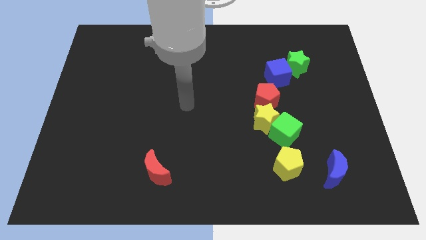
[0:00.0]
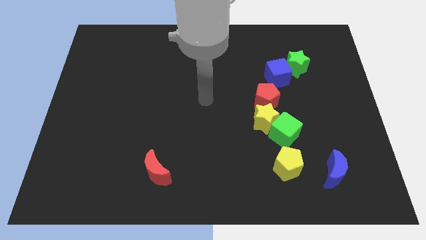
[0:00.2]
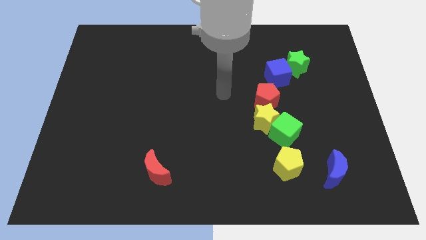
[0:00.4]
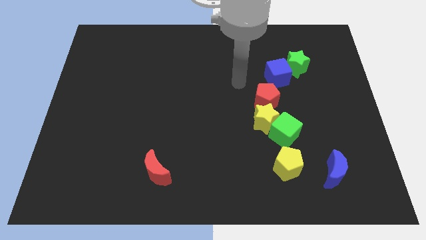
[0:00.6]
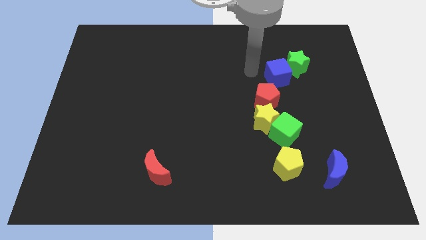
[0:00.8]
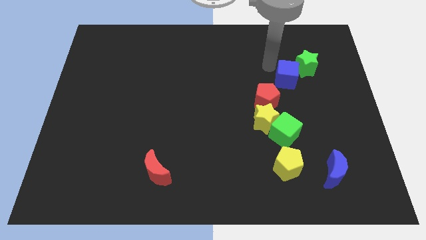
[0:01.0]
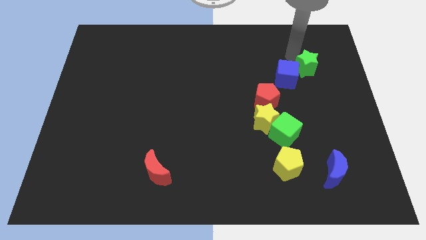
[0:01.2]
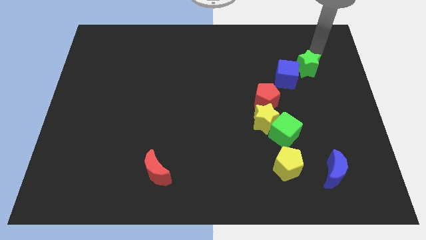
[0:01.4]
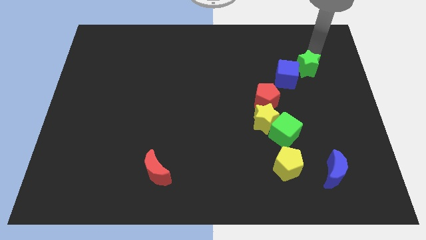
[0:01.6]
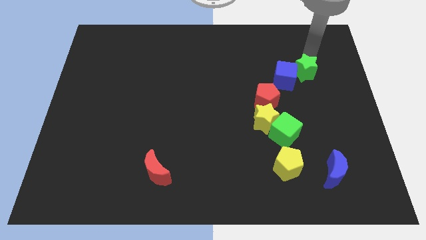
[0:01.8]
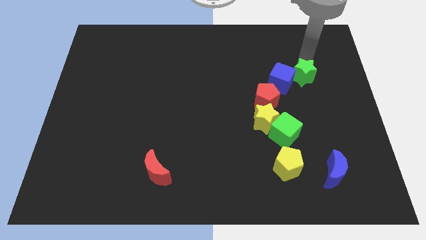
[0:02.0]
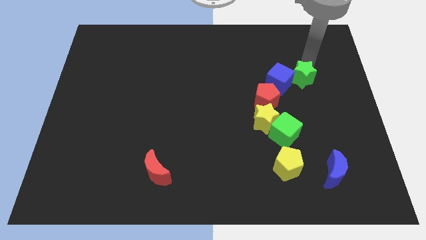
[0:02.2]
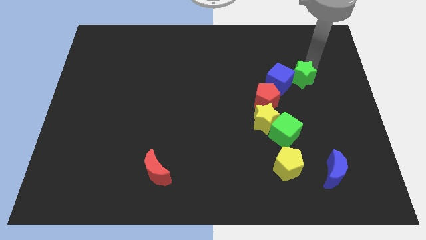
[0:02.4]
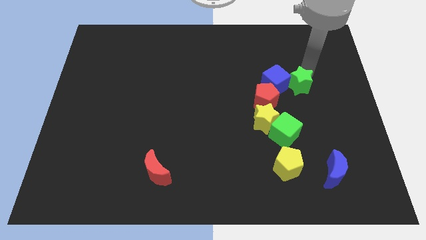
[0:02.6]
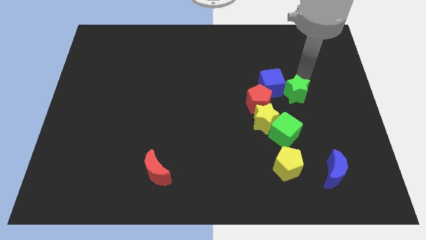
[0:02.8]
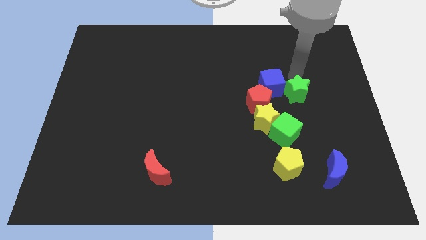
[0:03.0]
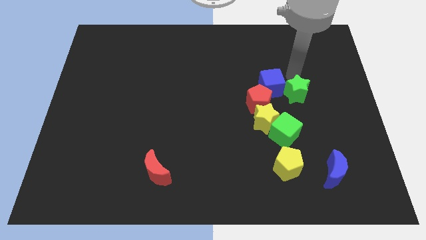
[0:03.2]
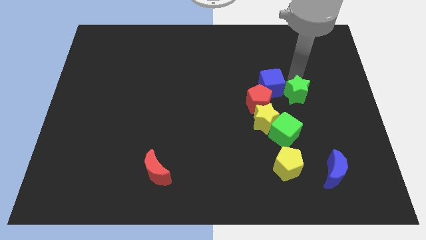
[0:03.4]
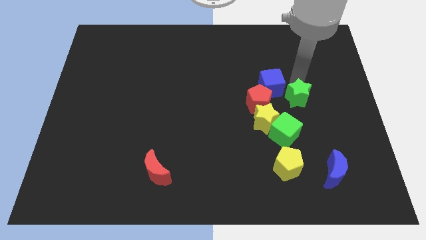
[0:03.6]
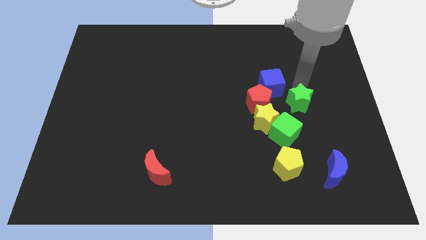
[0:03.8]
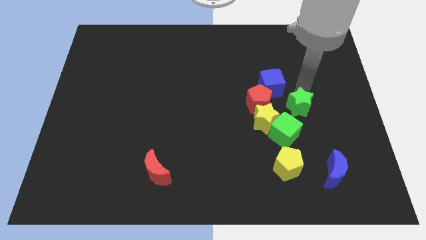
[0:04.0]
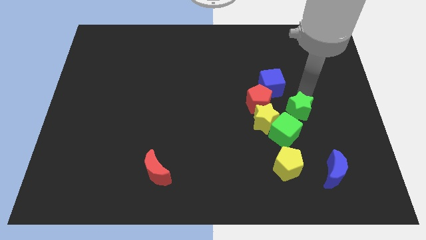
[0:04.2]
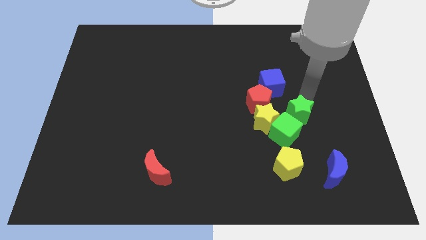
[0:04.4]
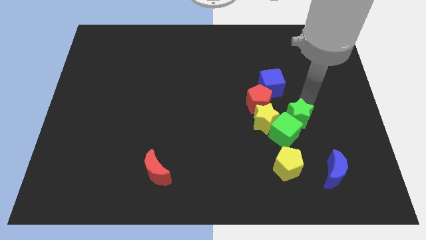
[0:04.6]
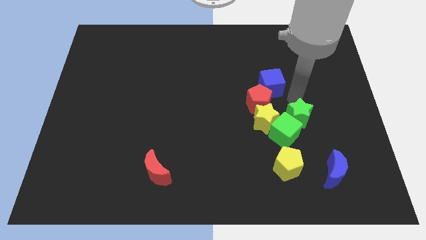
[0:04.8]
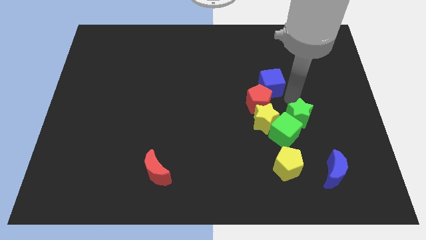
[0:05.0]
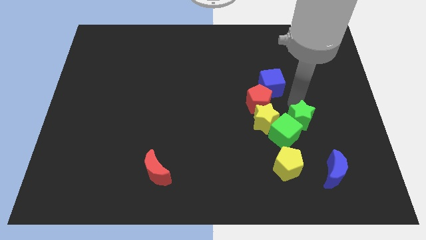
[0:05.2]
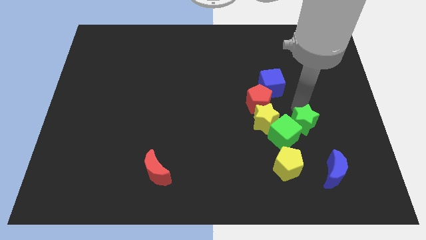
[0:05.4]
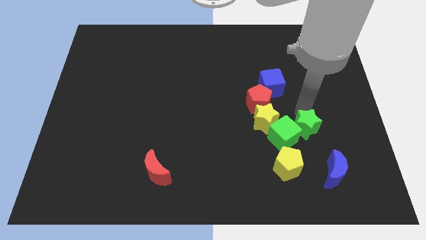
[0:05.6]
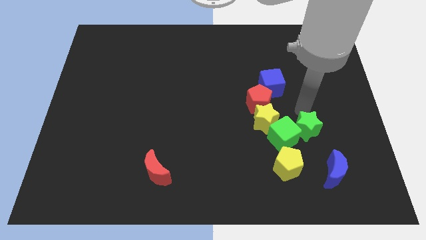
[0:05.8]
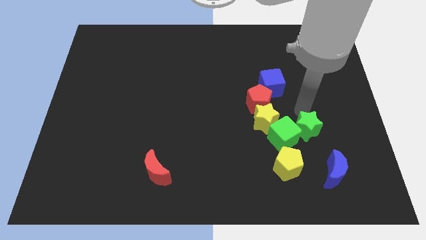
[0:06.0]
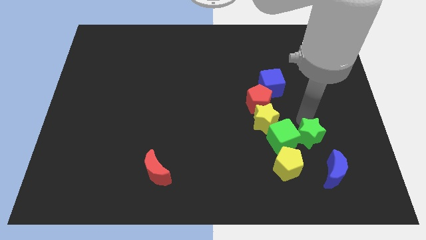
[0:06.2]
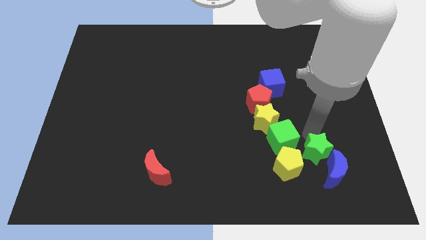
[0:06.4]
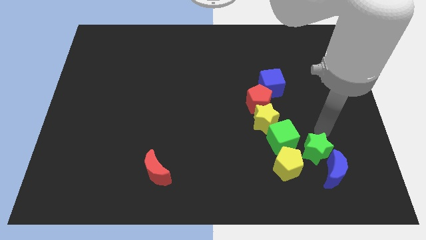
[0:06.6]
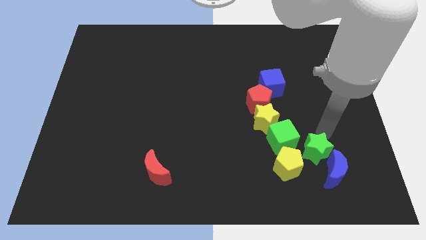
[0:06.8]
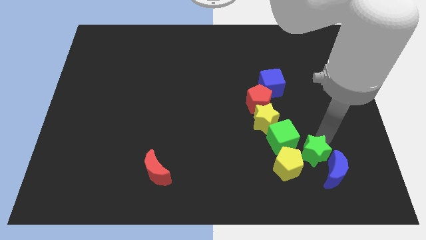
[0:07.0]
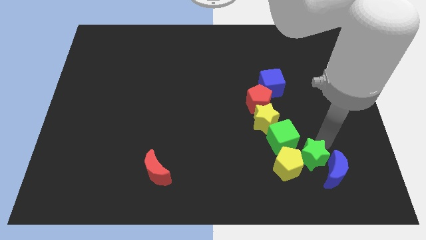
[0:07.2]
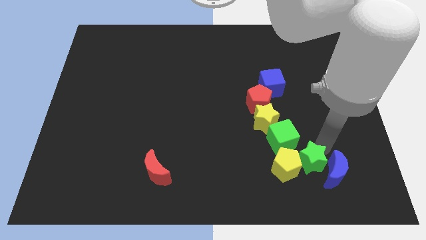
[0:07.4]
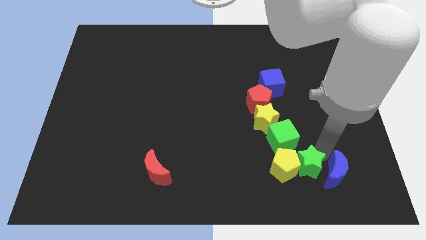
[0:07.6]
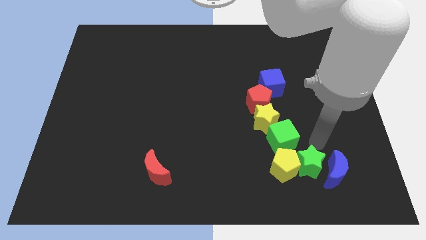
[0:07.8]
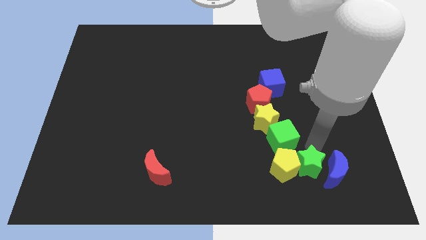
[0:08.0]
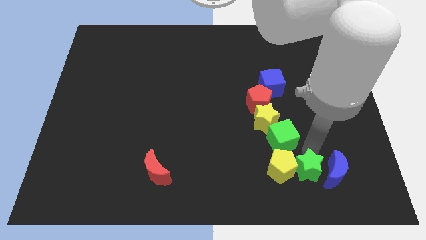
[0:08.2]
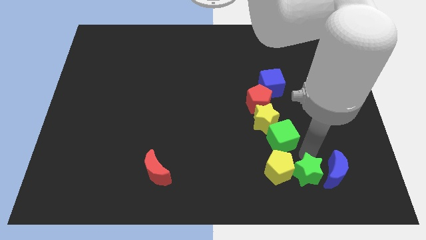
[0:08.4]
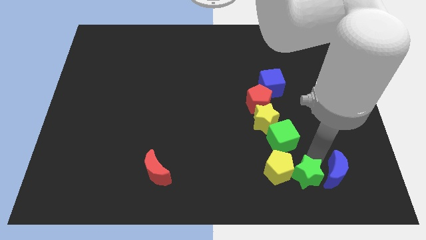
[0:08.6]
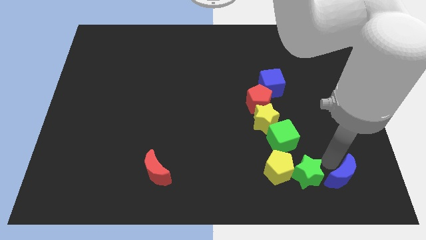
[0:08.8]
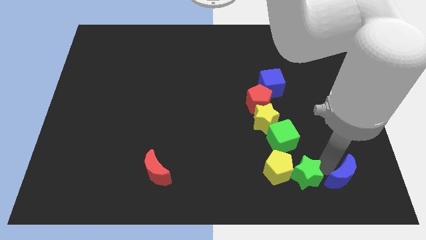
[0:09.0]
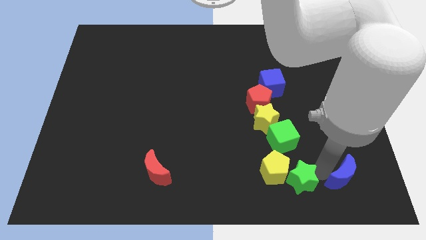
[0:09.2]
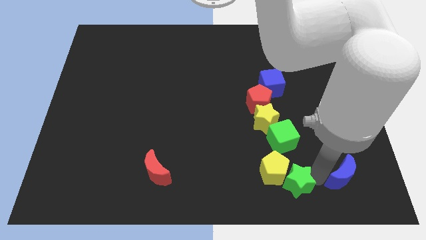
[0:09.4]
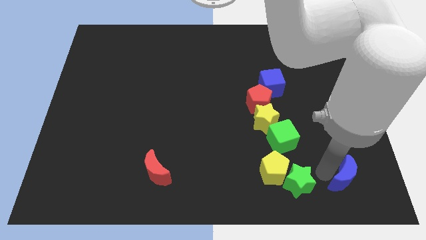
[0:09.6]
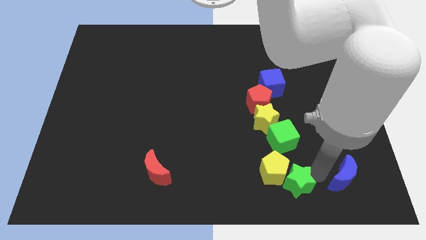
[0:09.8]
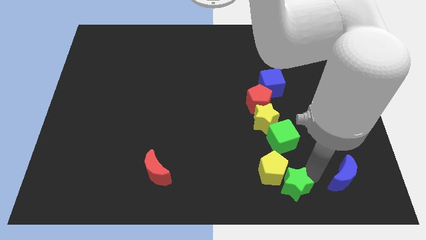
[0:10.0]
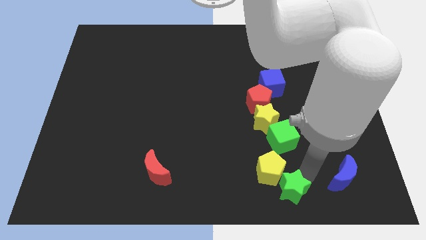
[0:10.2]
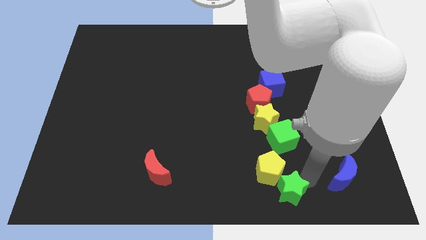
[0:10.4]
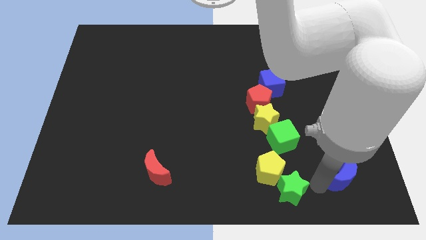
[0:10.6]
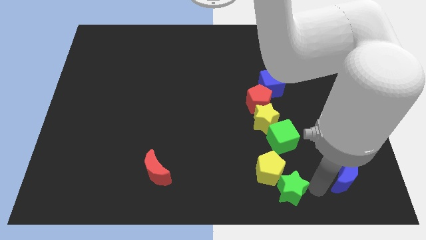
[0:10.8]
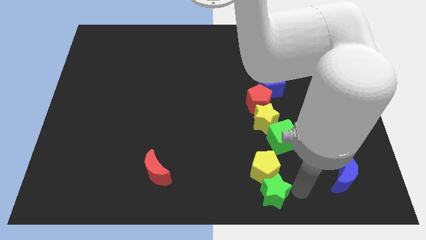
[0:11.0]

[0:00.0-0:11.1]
push the green star to the bottom side
